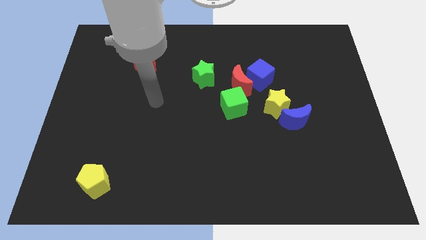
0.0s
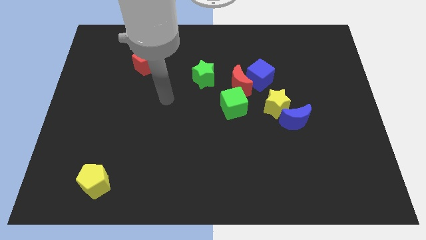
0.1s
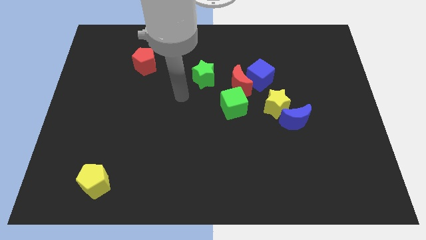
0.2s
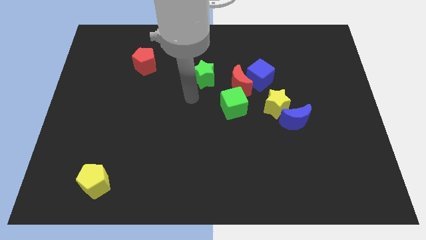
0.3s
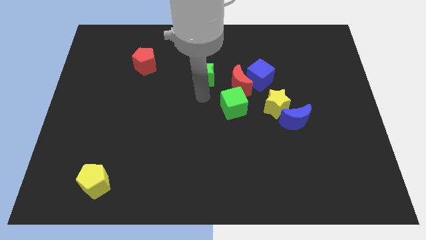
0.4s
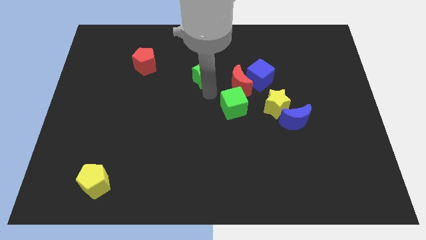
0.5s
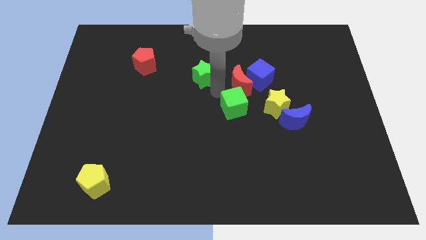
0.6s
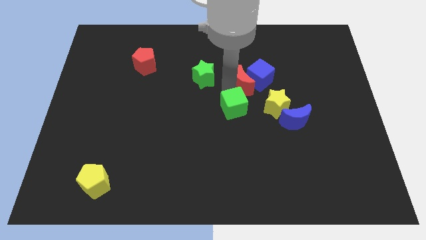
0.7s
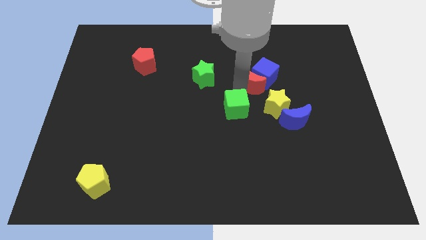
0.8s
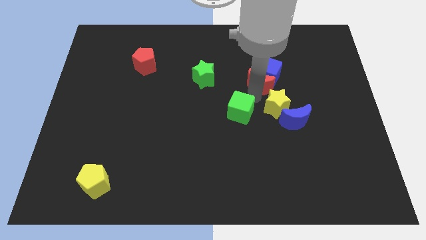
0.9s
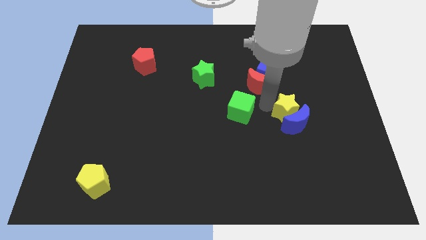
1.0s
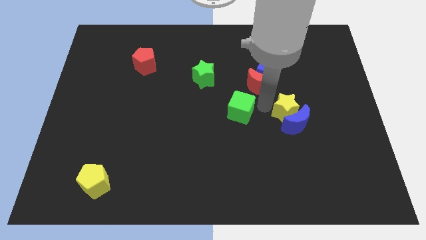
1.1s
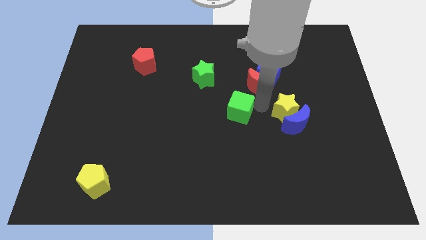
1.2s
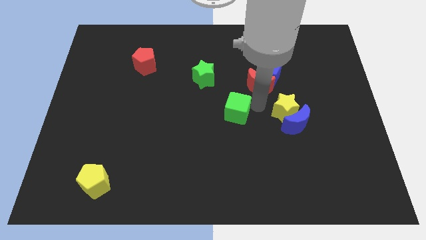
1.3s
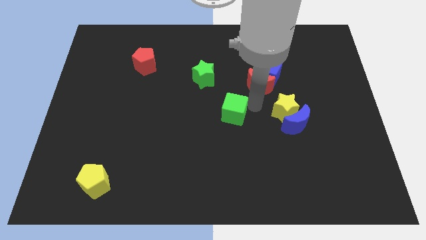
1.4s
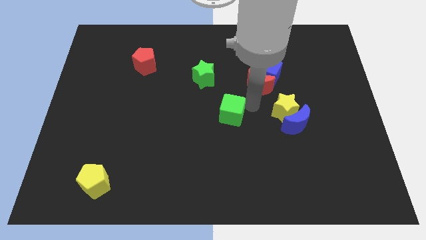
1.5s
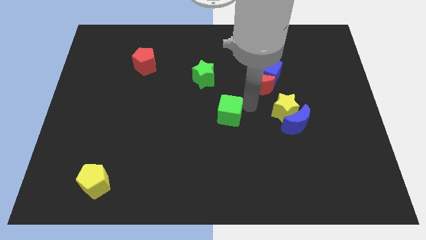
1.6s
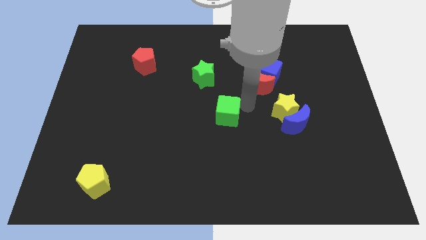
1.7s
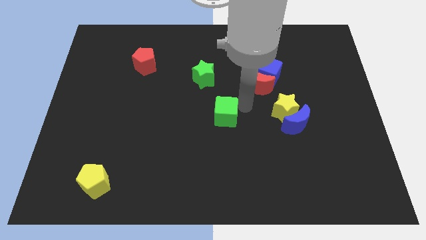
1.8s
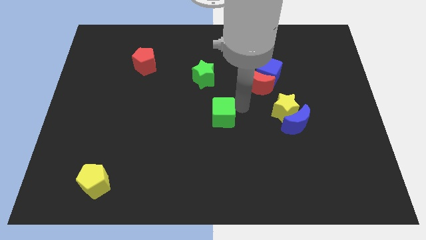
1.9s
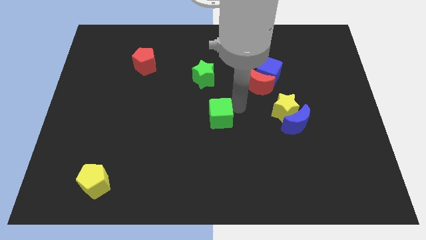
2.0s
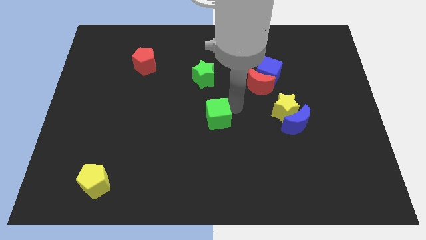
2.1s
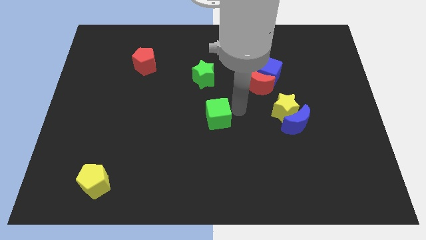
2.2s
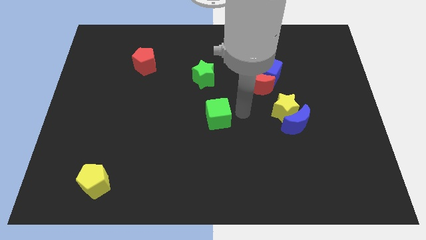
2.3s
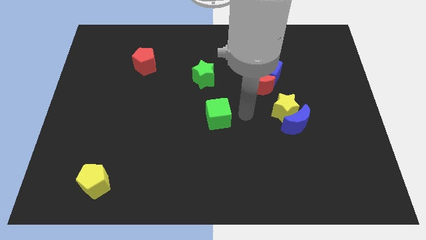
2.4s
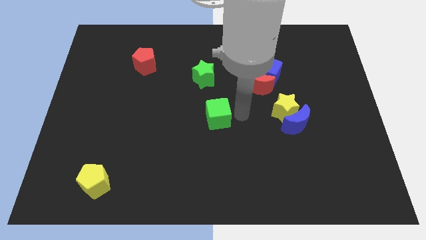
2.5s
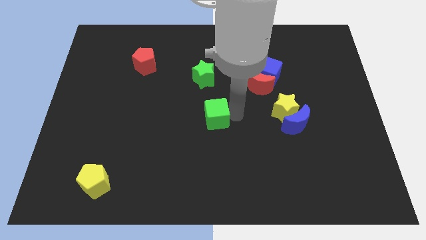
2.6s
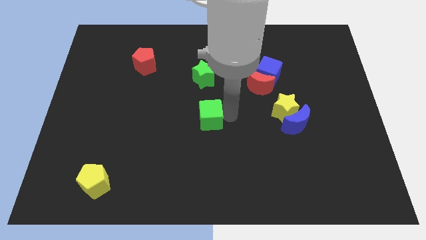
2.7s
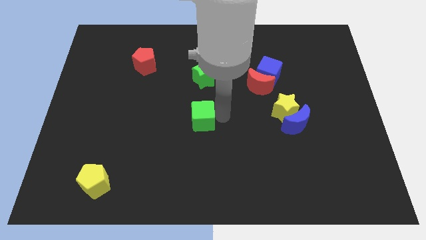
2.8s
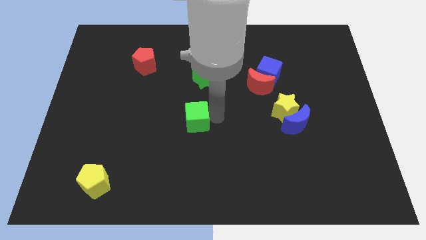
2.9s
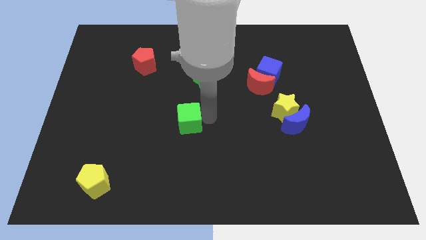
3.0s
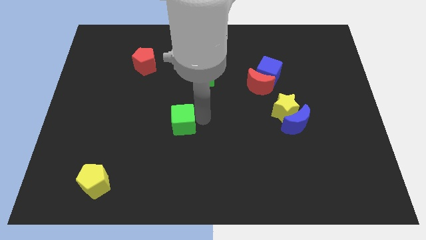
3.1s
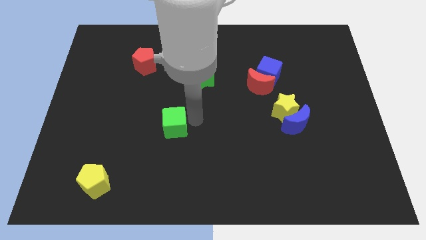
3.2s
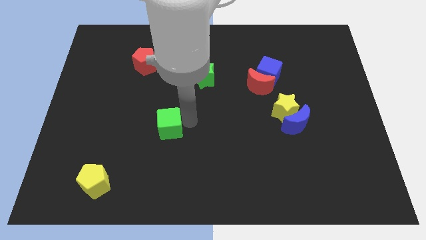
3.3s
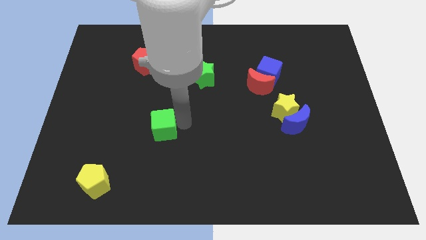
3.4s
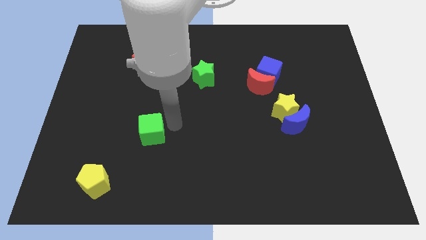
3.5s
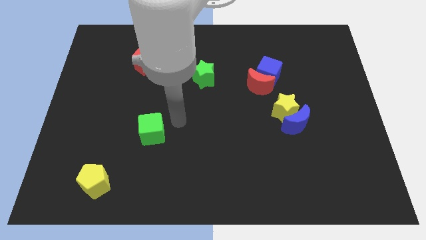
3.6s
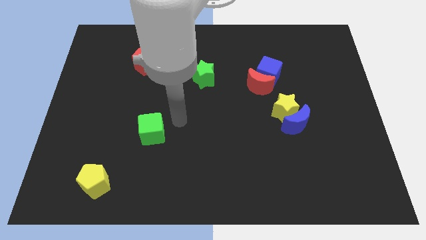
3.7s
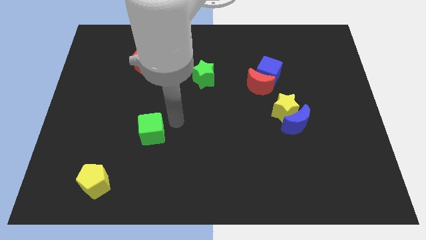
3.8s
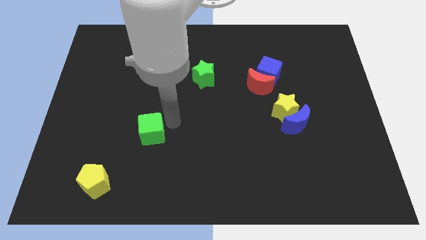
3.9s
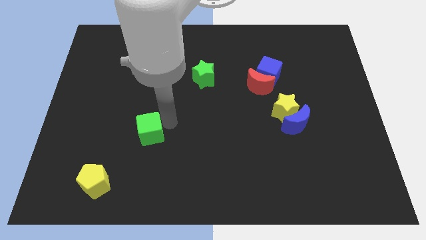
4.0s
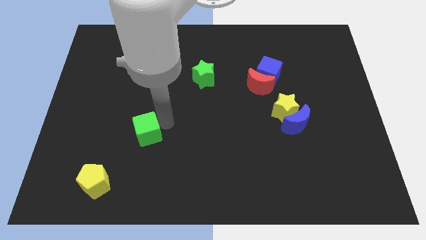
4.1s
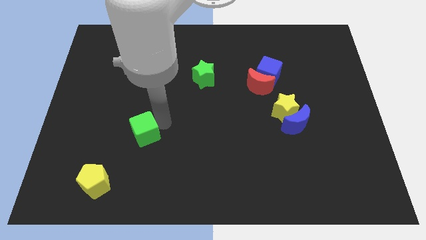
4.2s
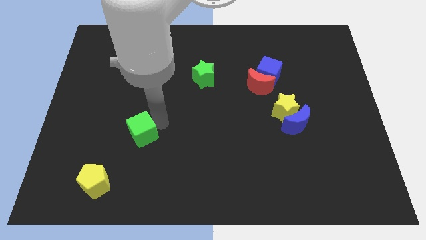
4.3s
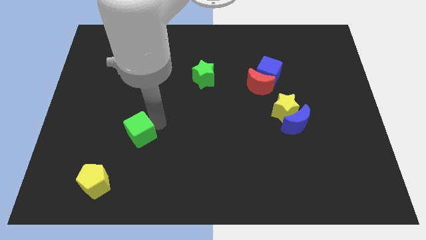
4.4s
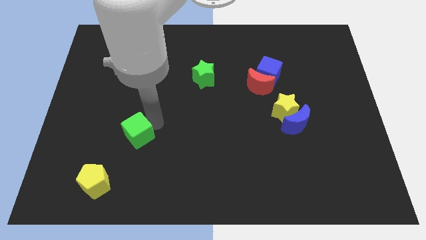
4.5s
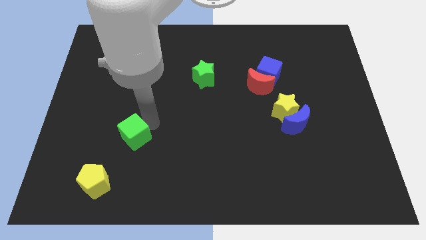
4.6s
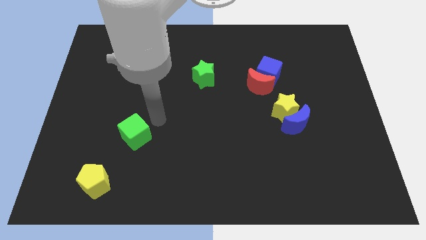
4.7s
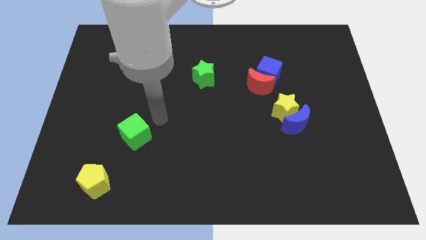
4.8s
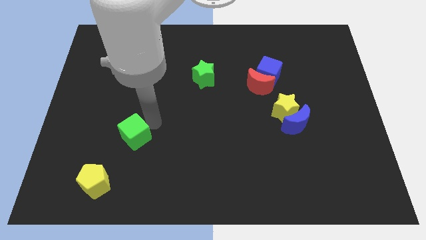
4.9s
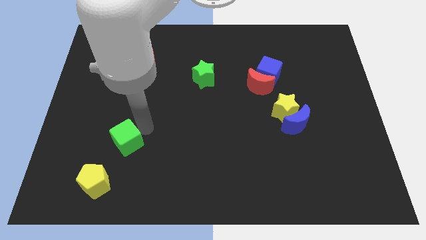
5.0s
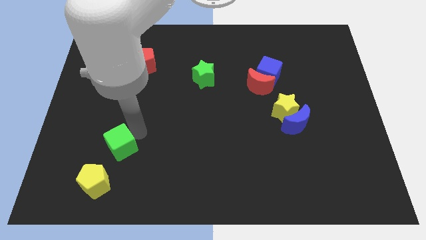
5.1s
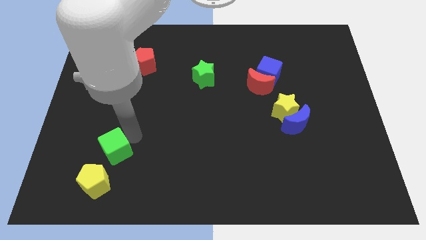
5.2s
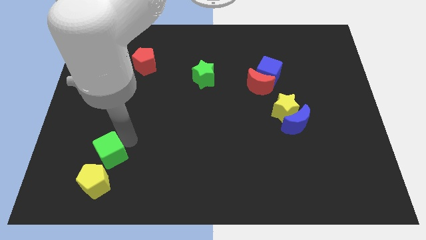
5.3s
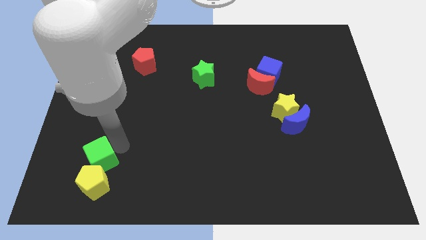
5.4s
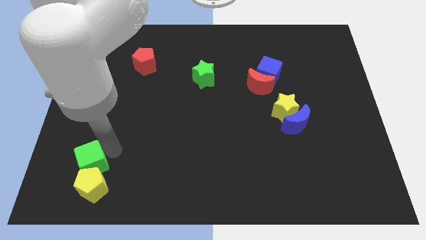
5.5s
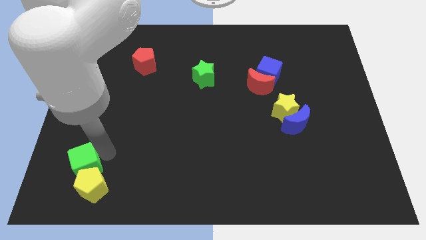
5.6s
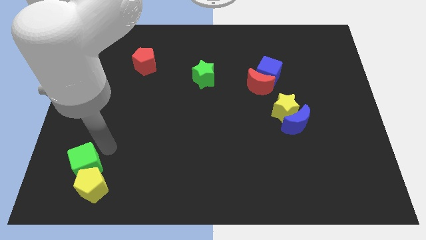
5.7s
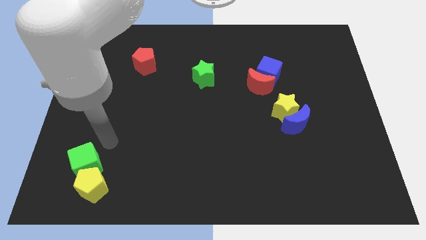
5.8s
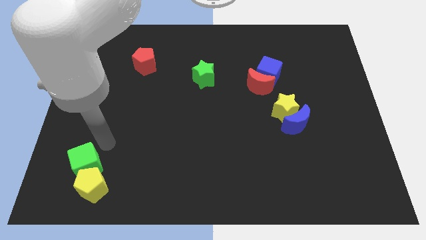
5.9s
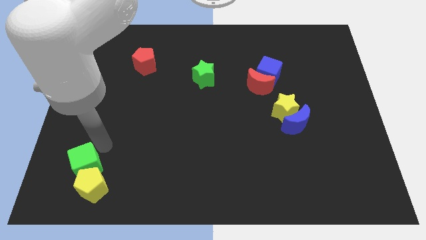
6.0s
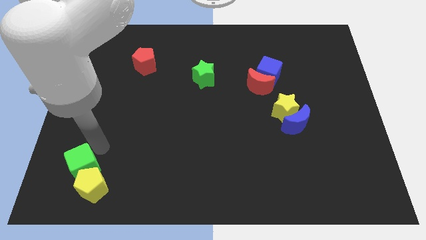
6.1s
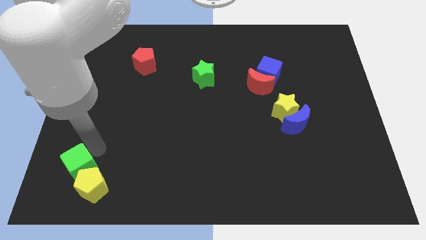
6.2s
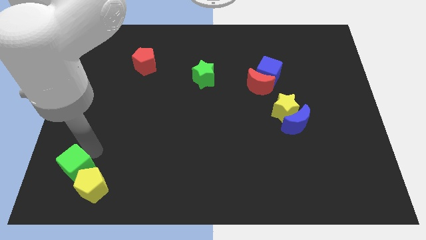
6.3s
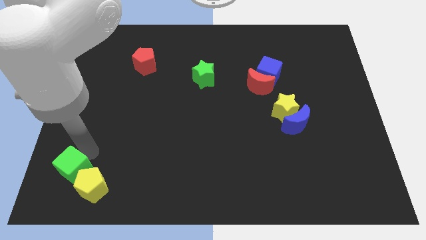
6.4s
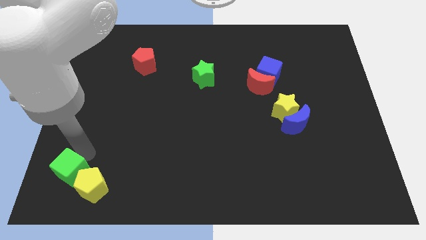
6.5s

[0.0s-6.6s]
slide the green cube to the bottom left
